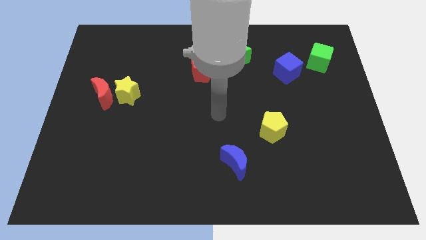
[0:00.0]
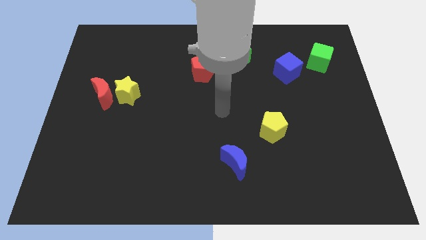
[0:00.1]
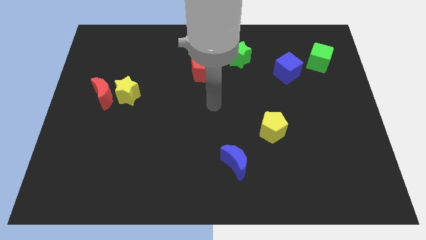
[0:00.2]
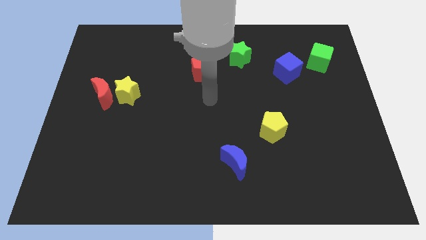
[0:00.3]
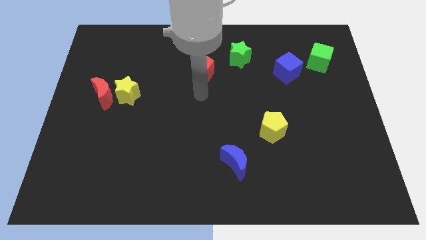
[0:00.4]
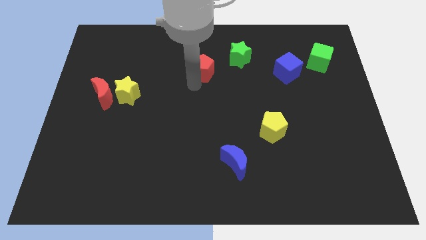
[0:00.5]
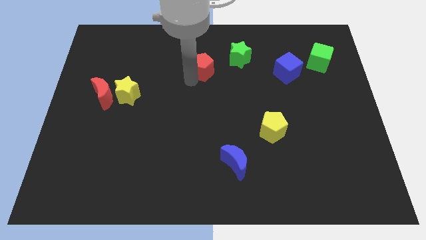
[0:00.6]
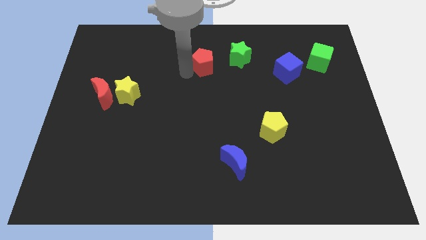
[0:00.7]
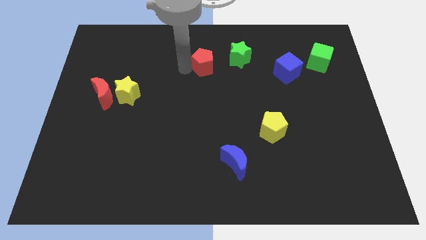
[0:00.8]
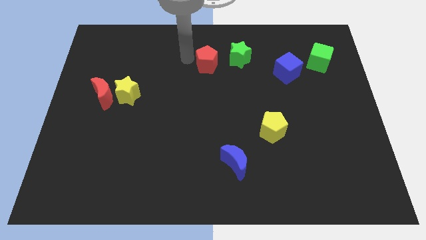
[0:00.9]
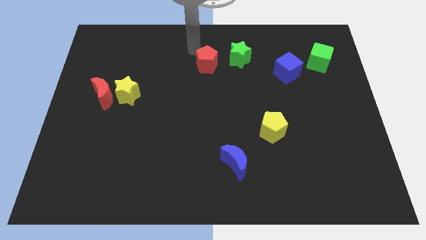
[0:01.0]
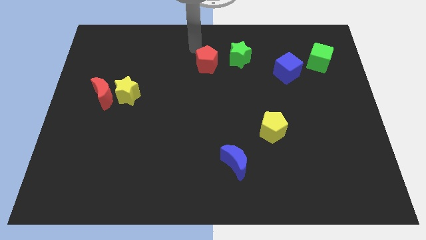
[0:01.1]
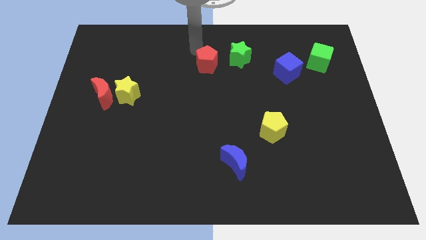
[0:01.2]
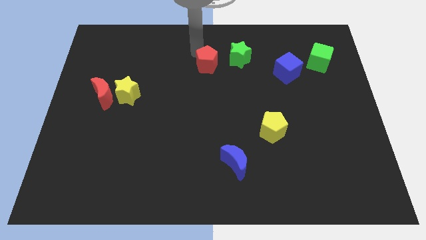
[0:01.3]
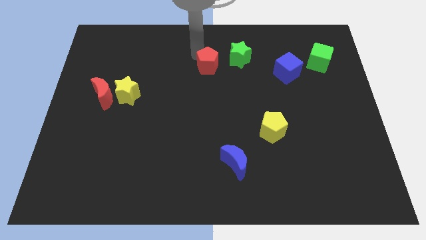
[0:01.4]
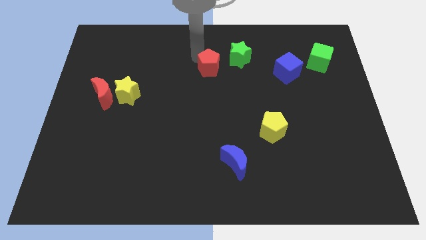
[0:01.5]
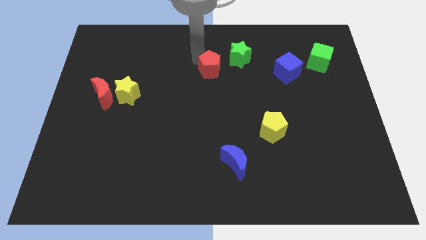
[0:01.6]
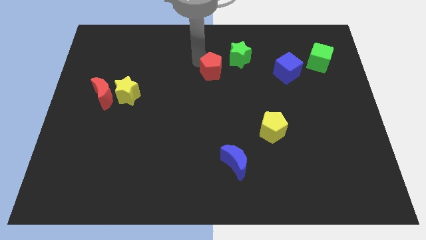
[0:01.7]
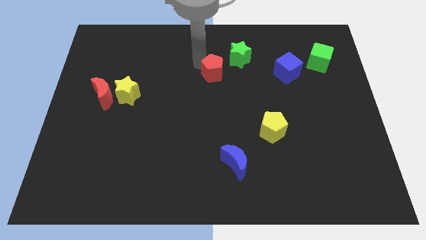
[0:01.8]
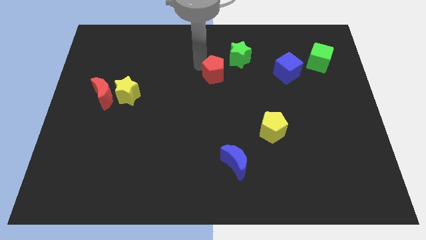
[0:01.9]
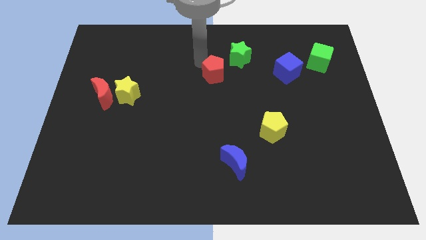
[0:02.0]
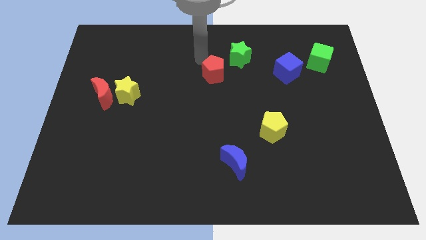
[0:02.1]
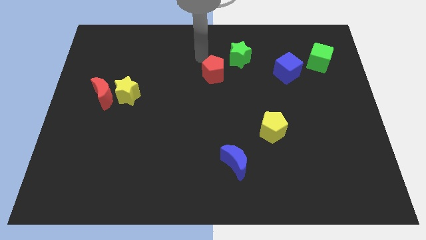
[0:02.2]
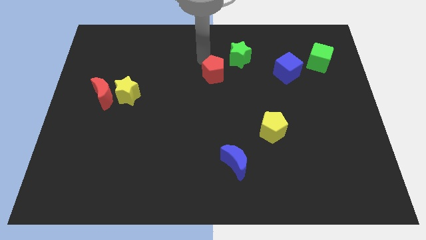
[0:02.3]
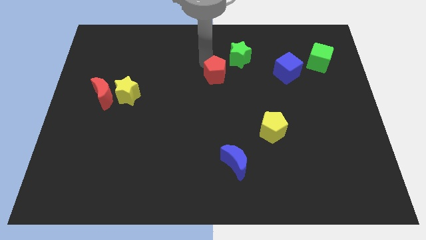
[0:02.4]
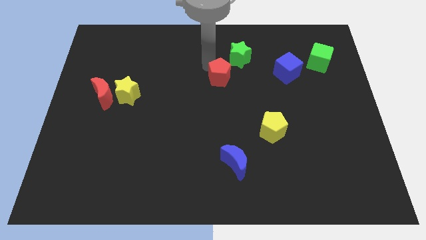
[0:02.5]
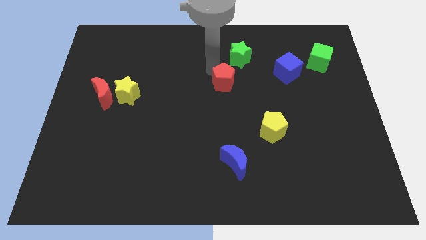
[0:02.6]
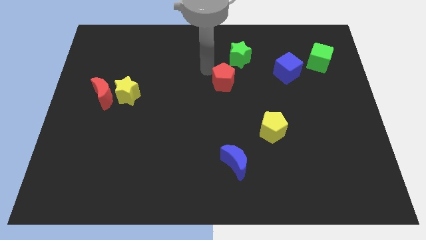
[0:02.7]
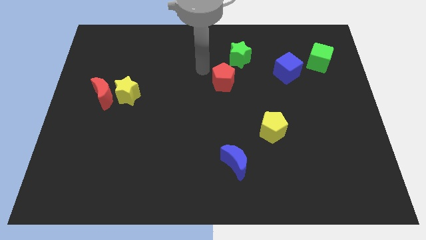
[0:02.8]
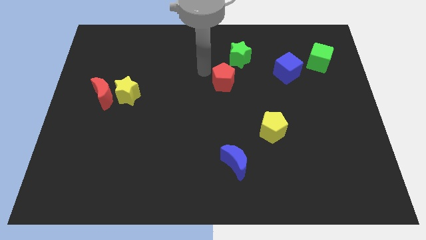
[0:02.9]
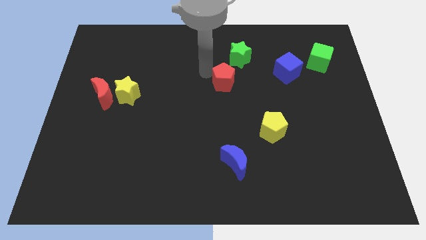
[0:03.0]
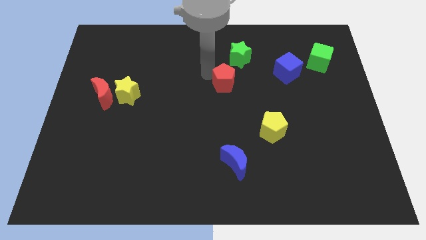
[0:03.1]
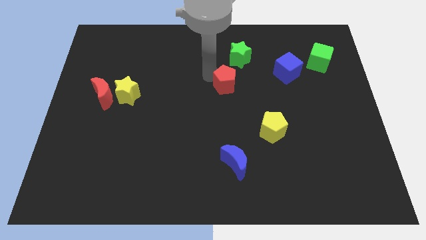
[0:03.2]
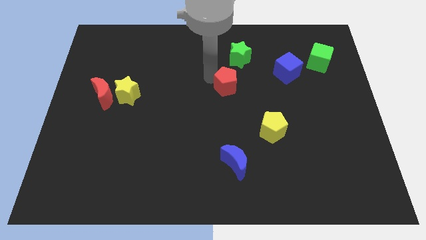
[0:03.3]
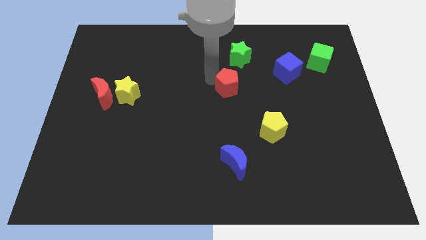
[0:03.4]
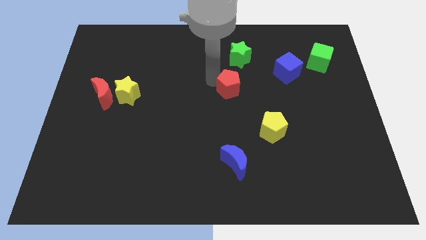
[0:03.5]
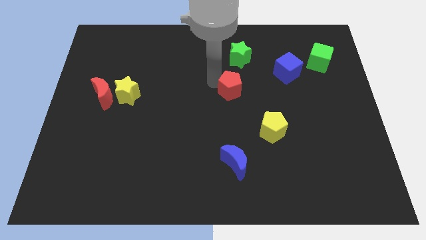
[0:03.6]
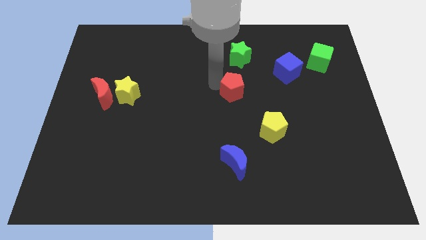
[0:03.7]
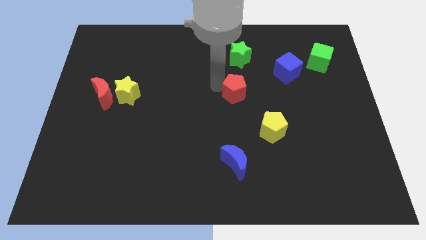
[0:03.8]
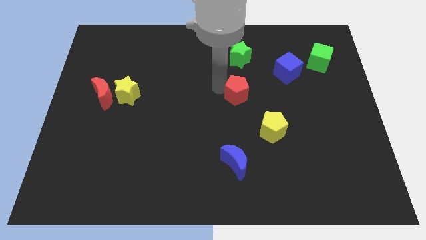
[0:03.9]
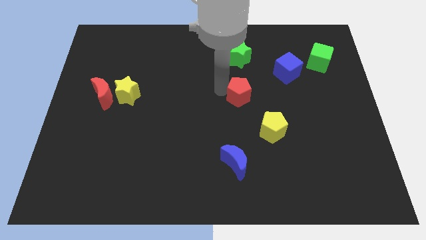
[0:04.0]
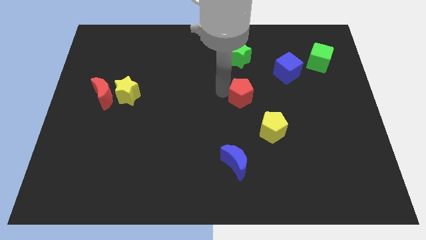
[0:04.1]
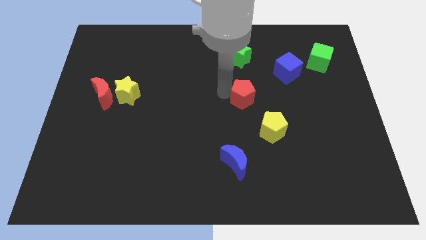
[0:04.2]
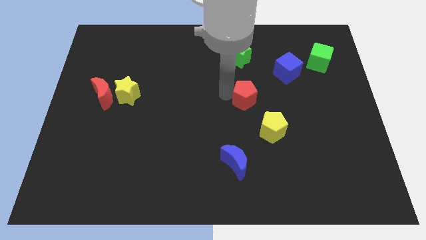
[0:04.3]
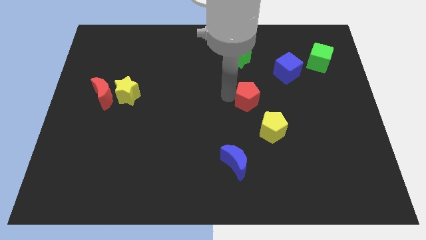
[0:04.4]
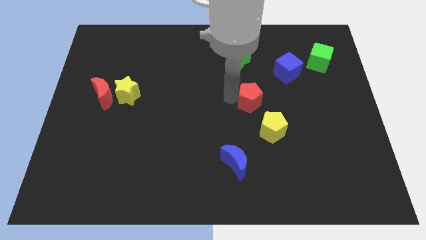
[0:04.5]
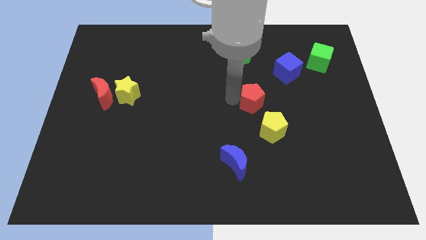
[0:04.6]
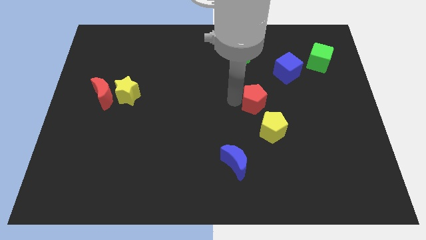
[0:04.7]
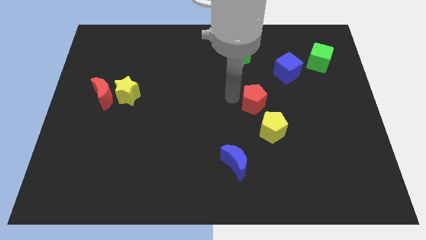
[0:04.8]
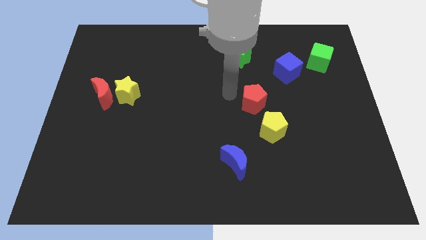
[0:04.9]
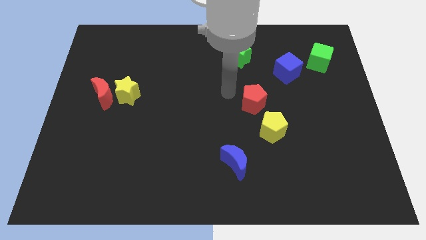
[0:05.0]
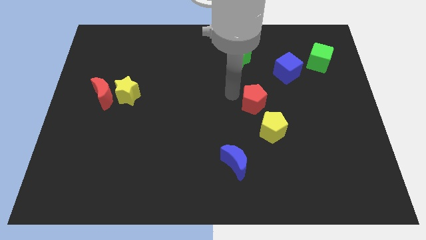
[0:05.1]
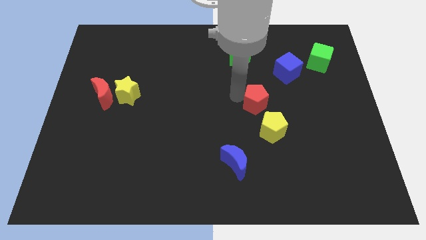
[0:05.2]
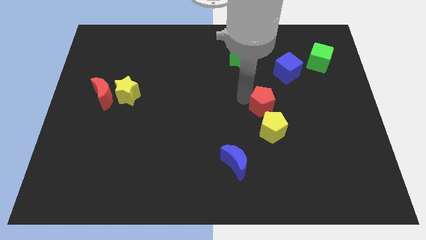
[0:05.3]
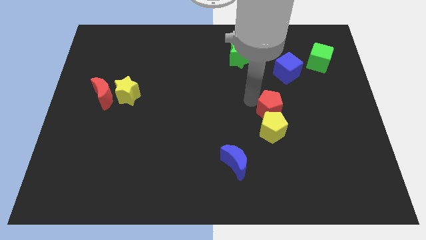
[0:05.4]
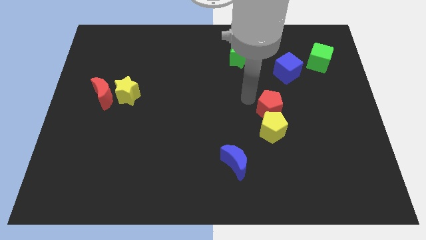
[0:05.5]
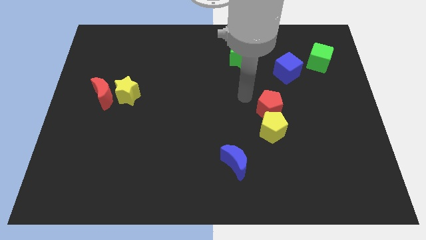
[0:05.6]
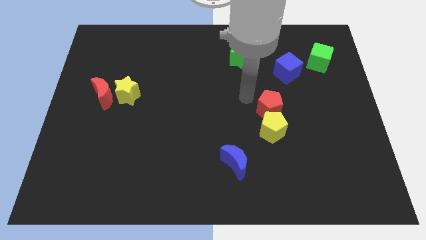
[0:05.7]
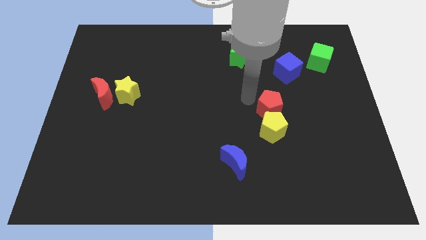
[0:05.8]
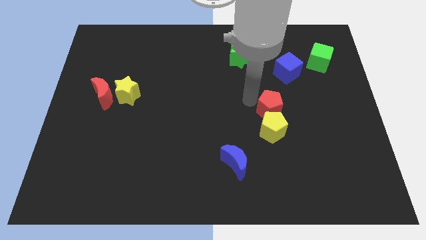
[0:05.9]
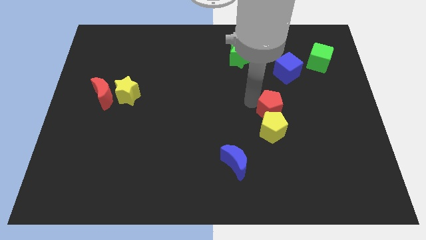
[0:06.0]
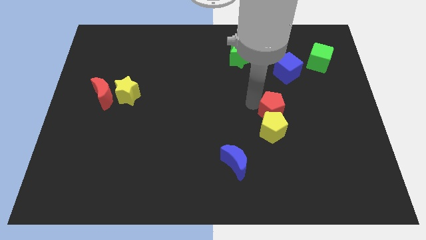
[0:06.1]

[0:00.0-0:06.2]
slide the red pentagon down and to the right diagonally

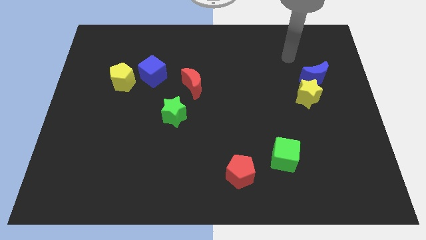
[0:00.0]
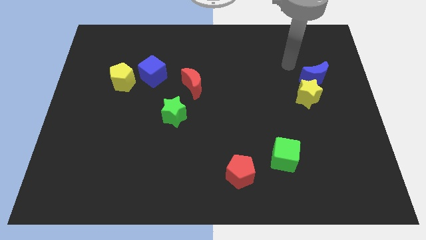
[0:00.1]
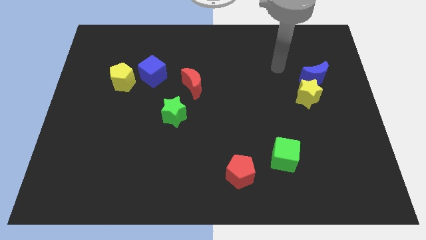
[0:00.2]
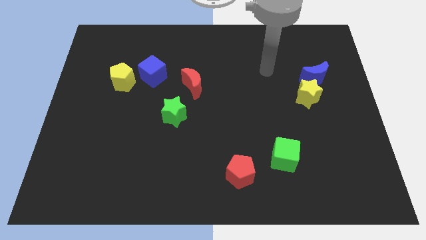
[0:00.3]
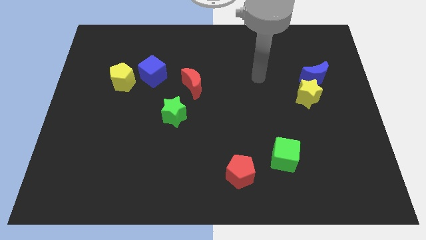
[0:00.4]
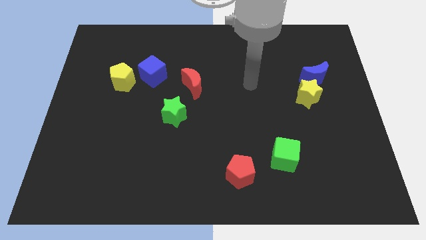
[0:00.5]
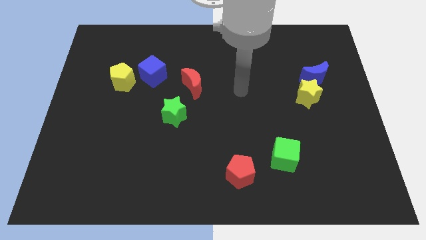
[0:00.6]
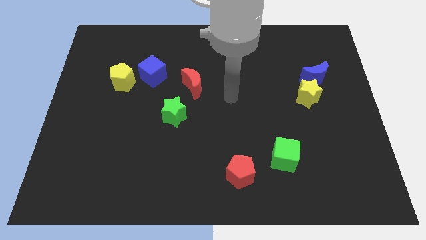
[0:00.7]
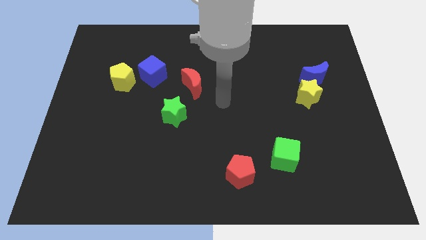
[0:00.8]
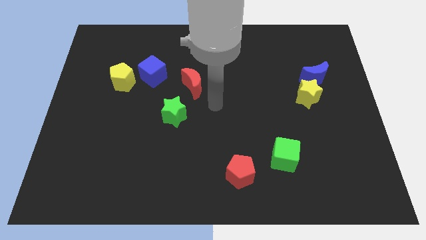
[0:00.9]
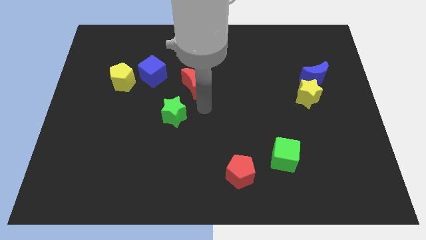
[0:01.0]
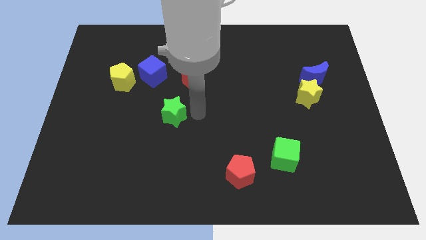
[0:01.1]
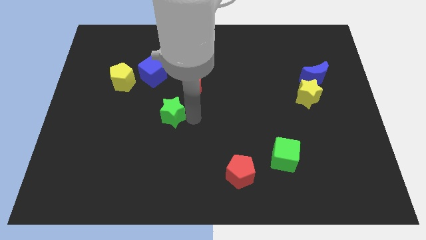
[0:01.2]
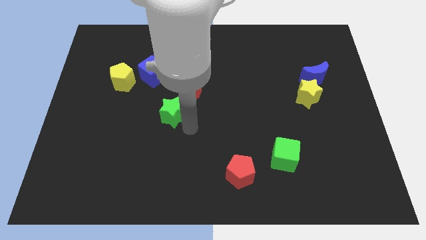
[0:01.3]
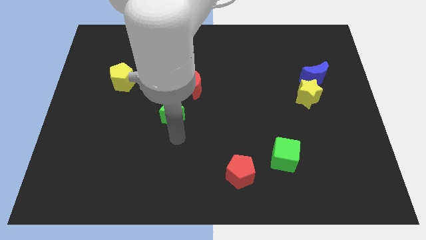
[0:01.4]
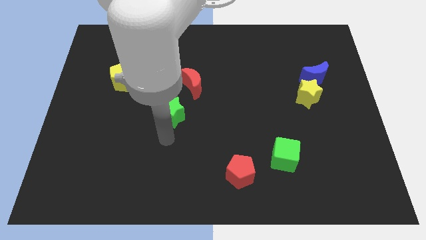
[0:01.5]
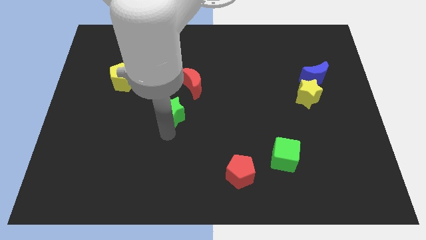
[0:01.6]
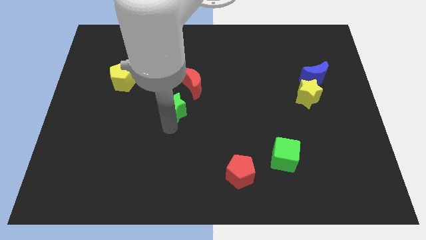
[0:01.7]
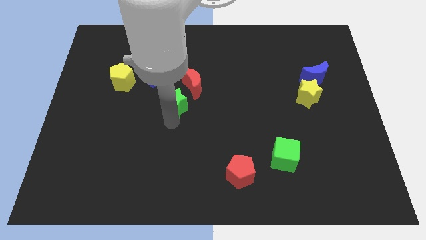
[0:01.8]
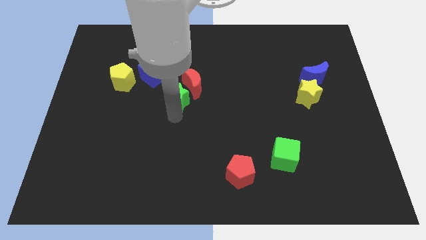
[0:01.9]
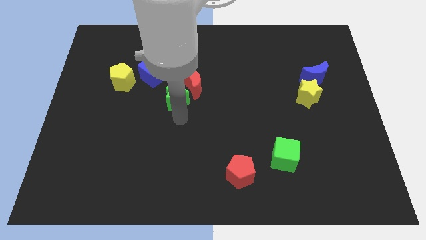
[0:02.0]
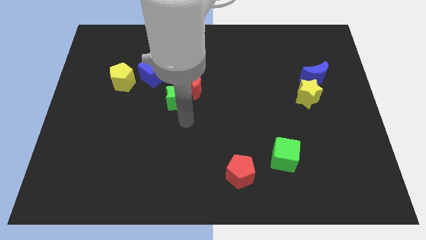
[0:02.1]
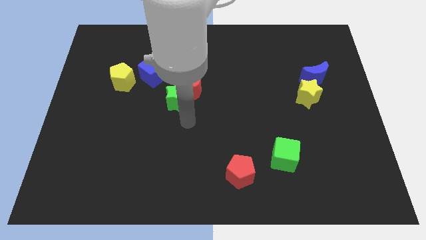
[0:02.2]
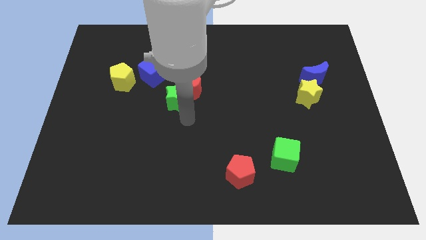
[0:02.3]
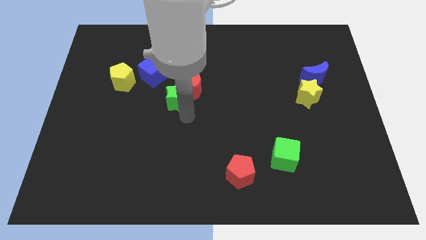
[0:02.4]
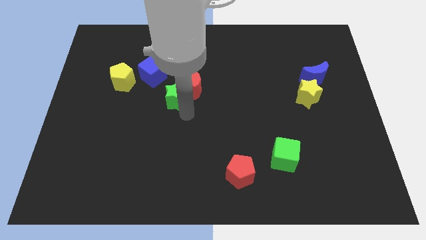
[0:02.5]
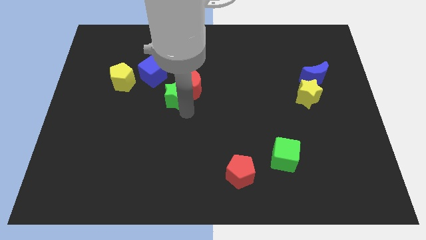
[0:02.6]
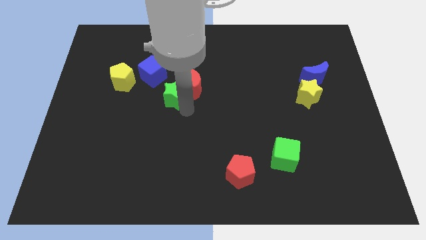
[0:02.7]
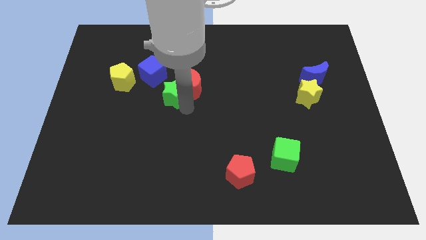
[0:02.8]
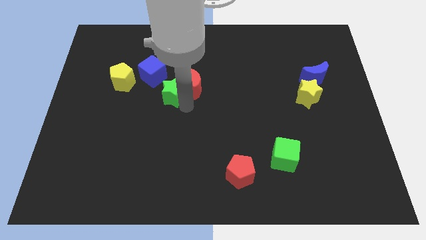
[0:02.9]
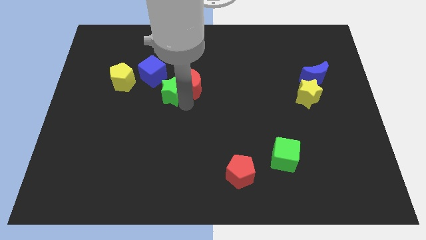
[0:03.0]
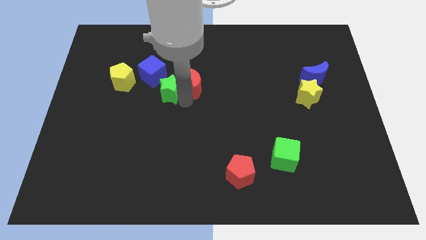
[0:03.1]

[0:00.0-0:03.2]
slide the green star a little up
